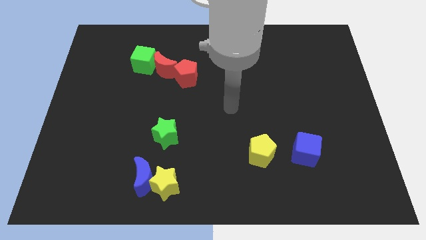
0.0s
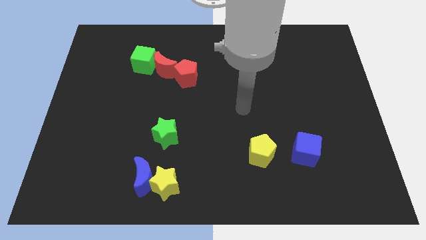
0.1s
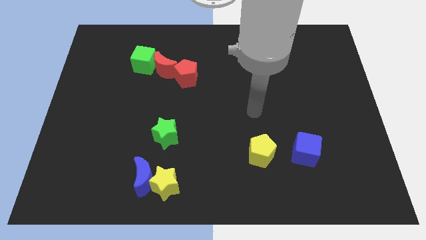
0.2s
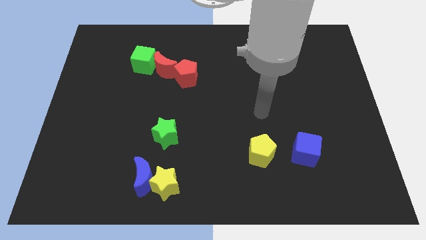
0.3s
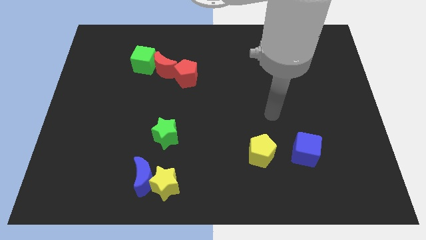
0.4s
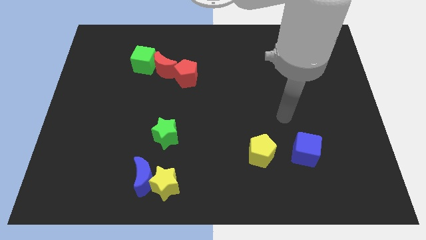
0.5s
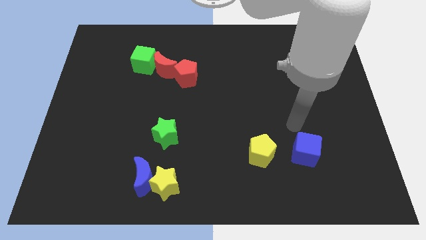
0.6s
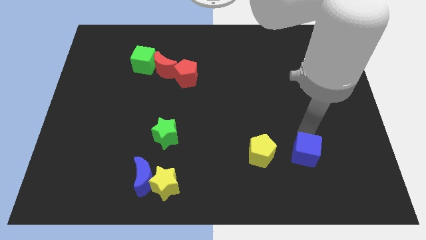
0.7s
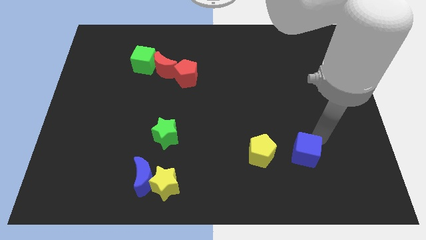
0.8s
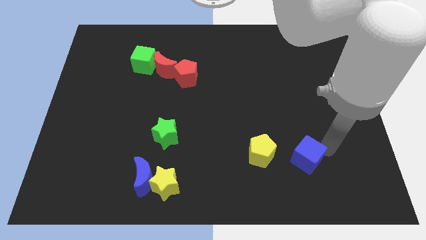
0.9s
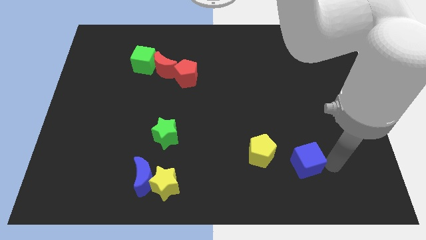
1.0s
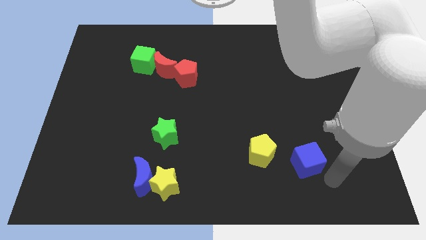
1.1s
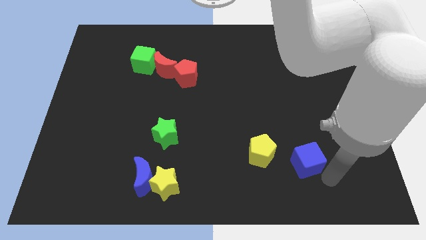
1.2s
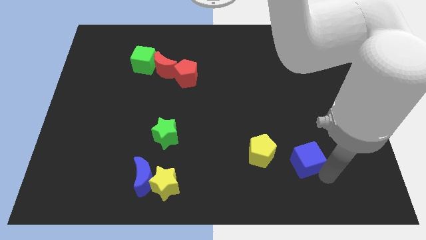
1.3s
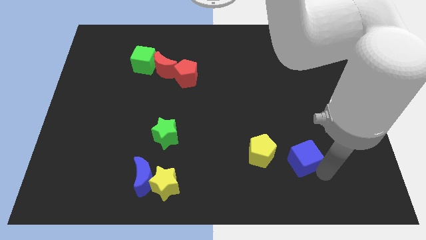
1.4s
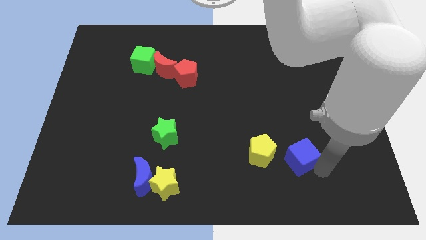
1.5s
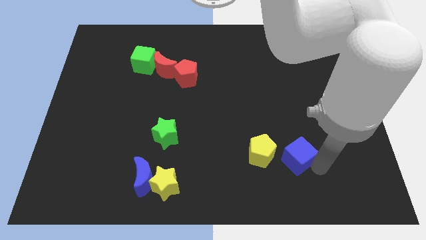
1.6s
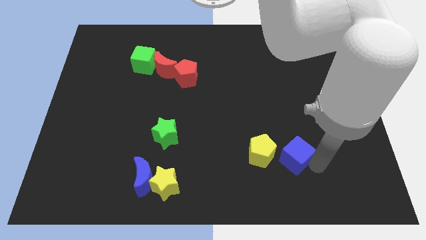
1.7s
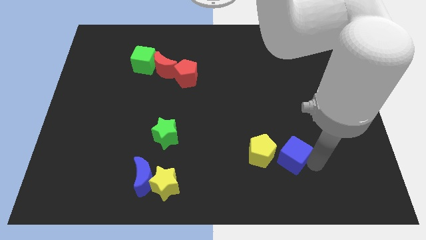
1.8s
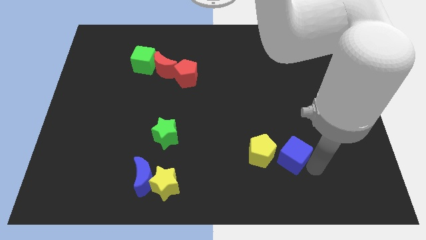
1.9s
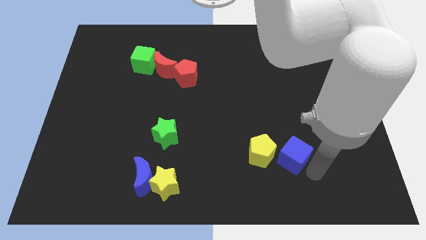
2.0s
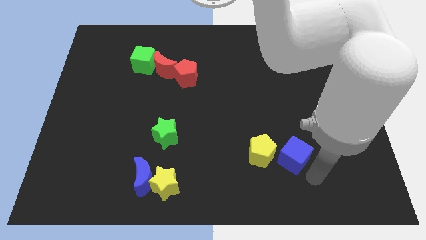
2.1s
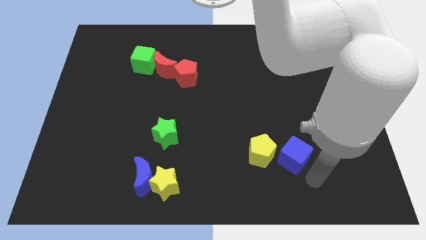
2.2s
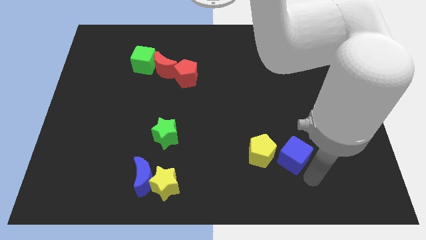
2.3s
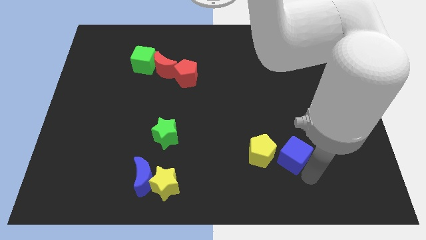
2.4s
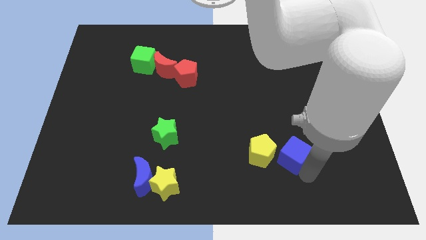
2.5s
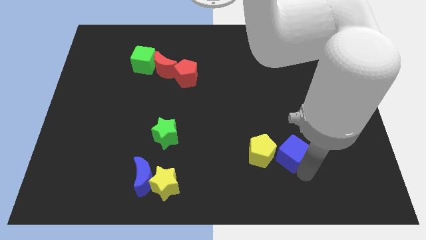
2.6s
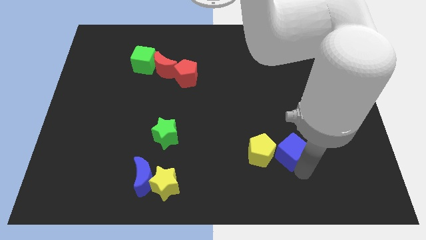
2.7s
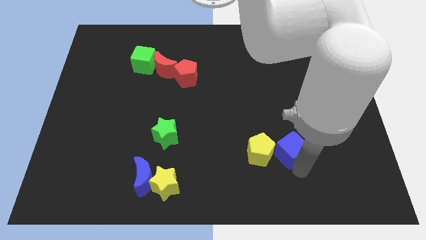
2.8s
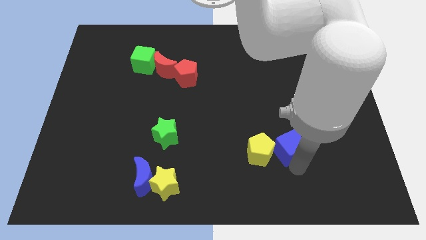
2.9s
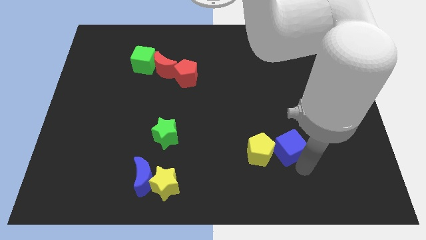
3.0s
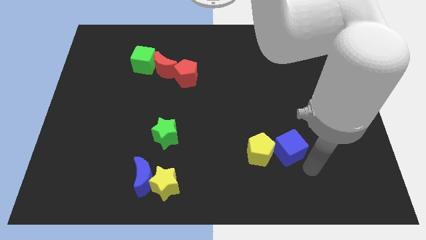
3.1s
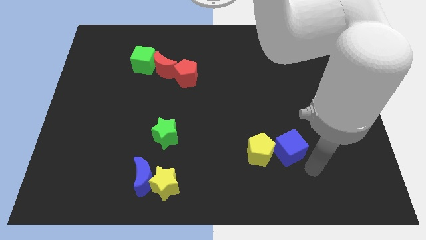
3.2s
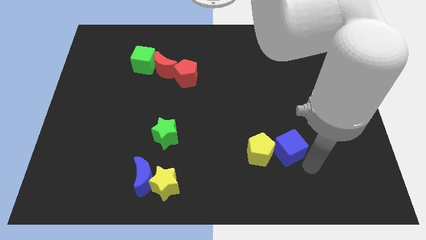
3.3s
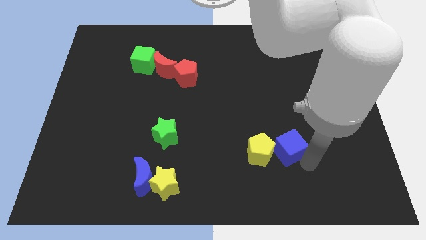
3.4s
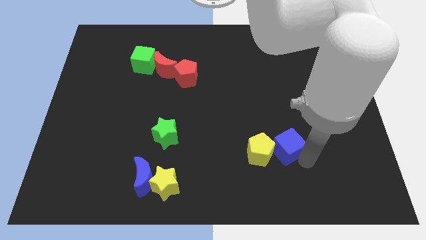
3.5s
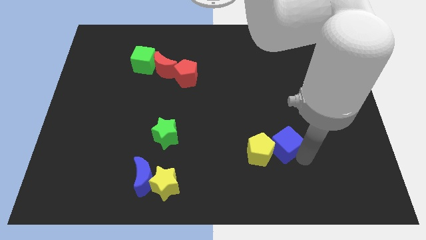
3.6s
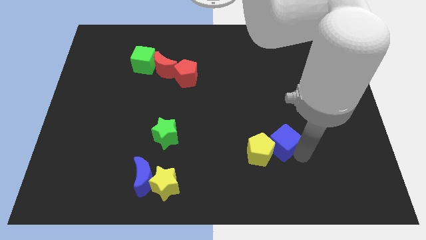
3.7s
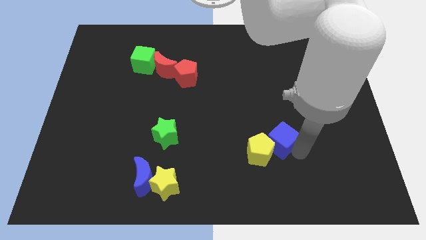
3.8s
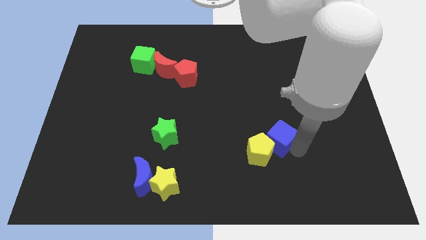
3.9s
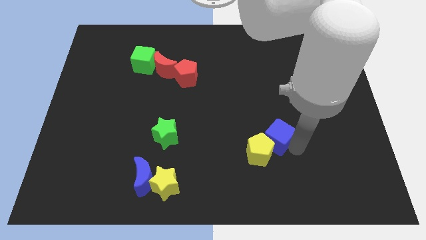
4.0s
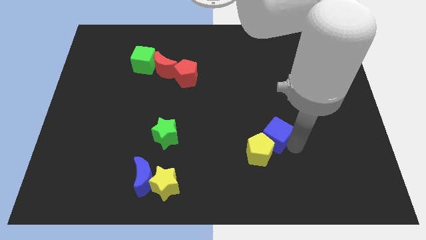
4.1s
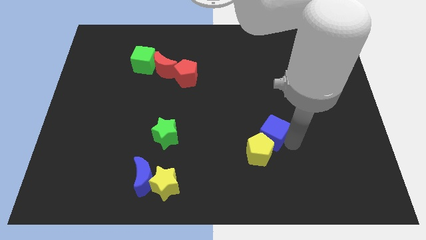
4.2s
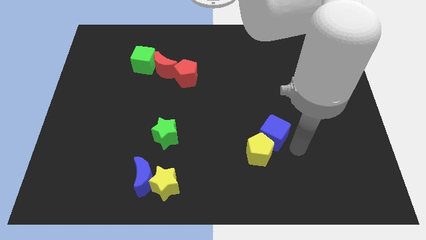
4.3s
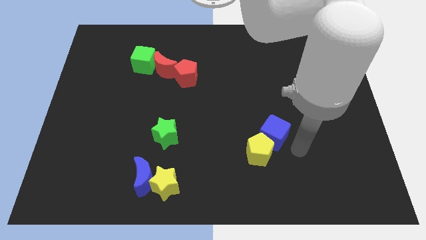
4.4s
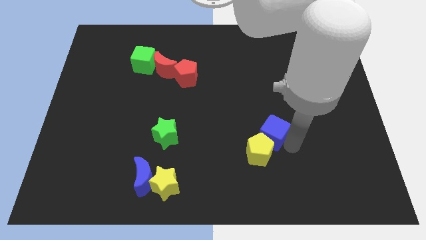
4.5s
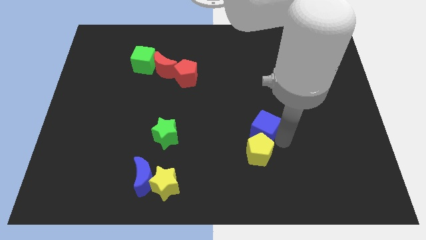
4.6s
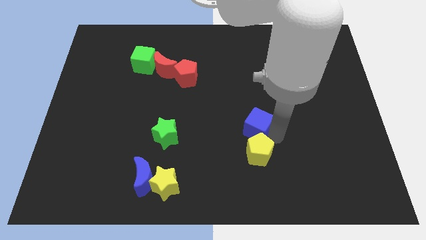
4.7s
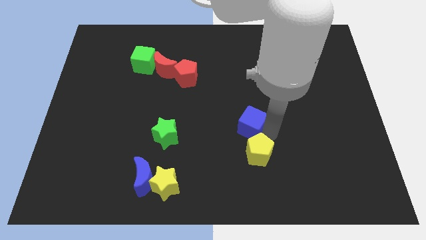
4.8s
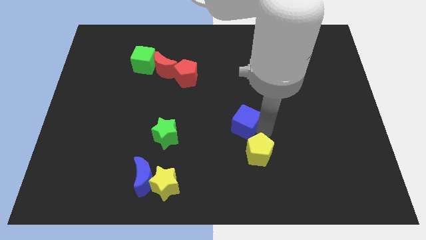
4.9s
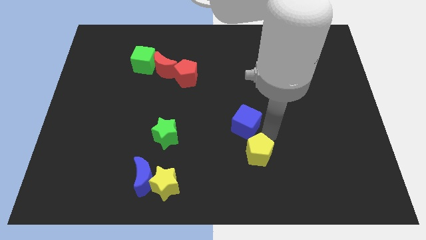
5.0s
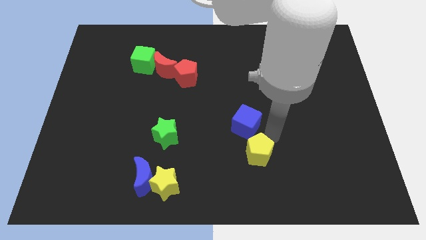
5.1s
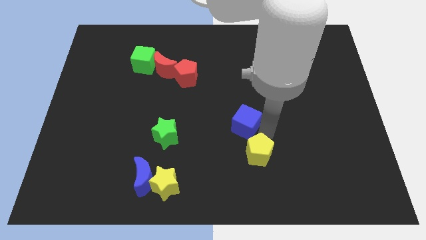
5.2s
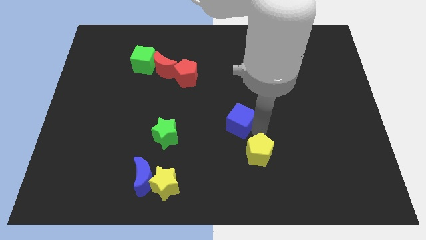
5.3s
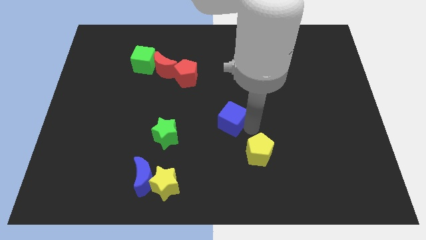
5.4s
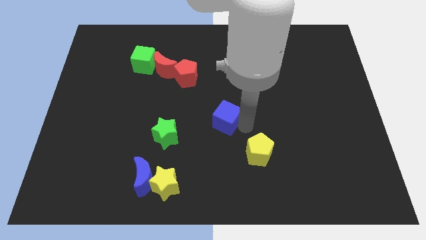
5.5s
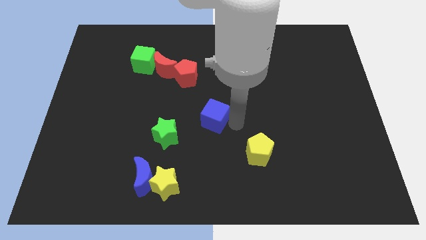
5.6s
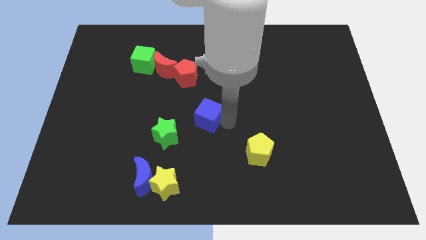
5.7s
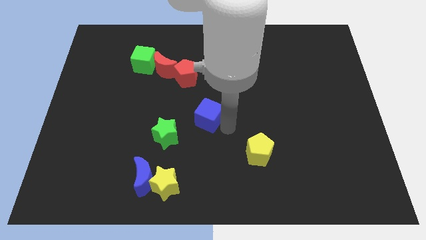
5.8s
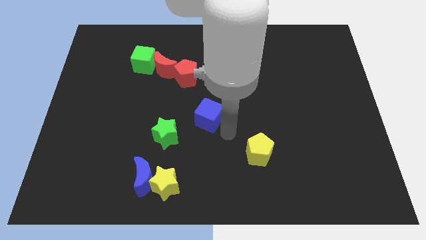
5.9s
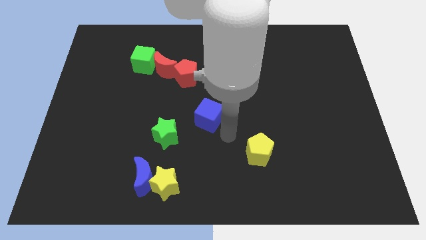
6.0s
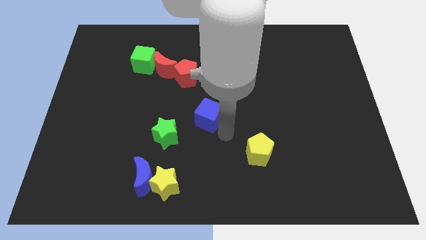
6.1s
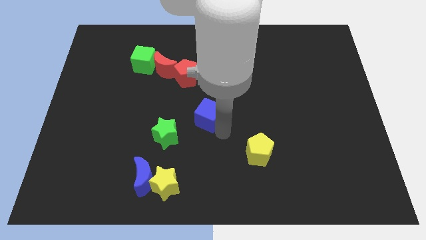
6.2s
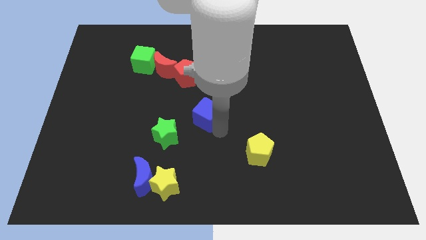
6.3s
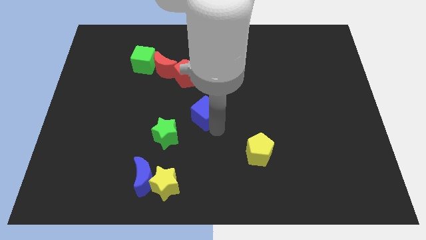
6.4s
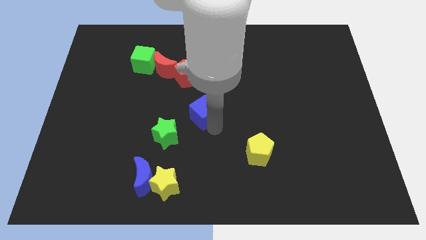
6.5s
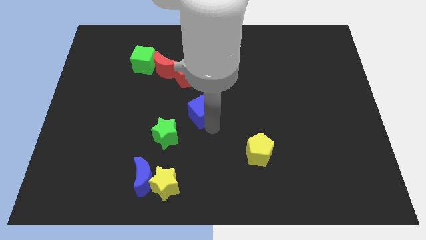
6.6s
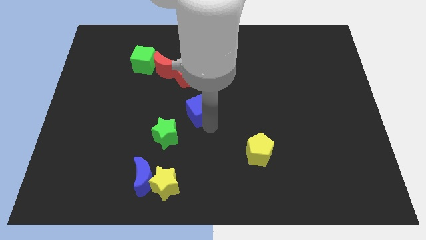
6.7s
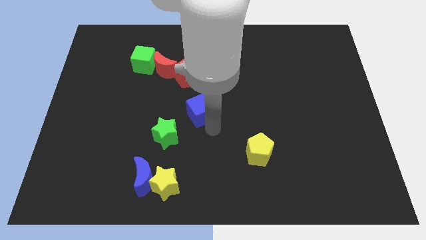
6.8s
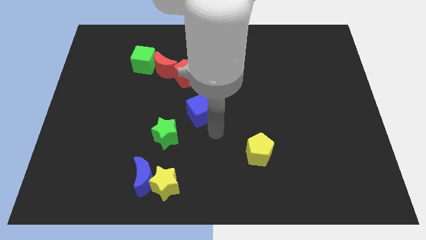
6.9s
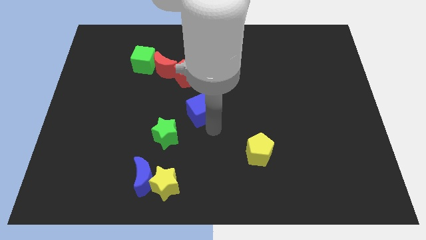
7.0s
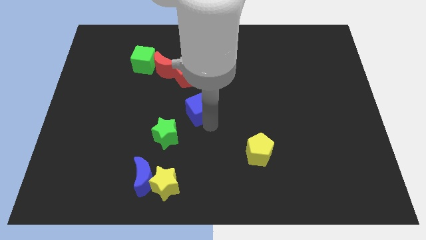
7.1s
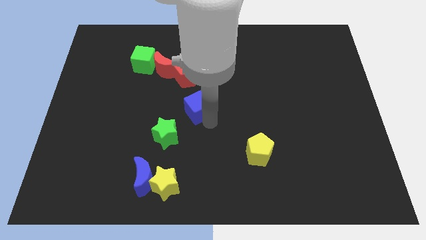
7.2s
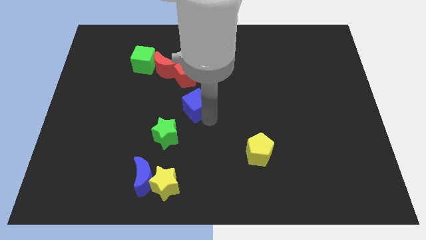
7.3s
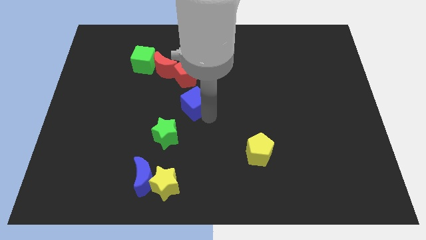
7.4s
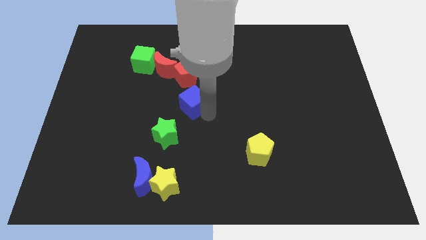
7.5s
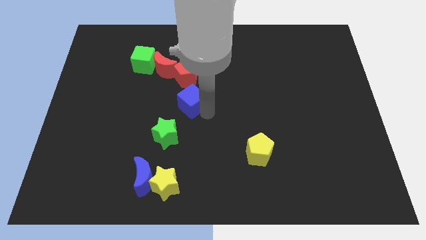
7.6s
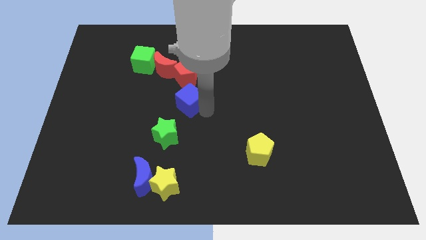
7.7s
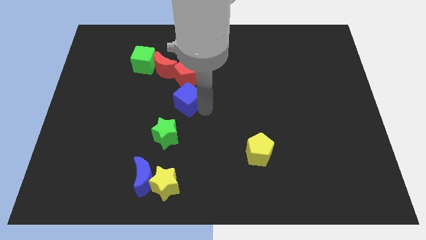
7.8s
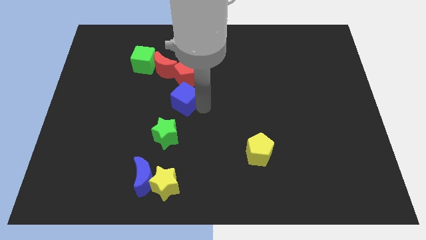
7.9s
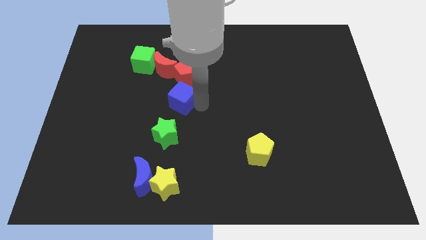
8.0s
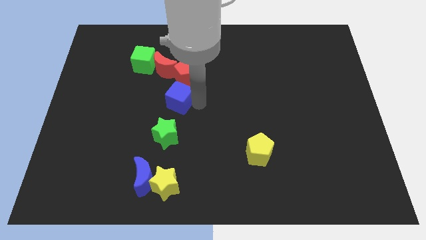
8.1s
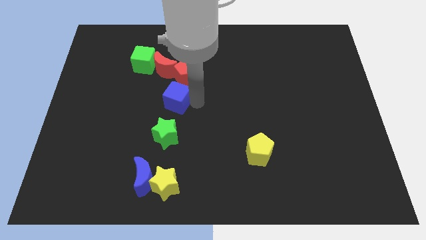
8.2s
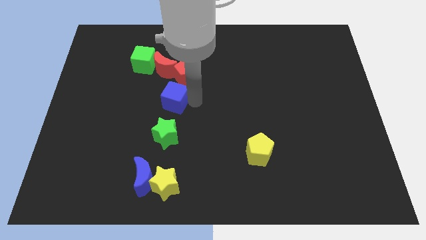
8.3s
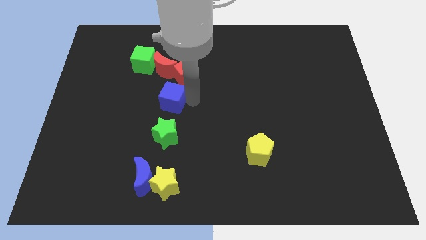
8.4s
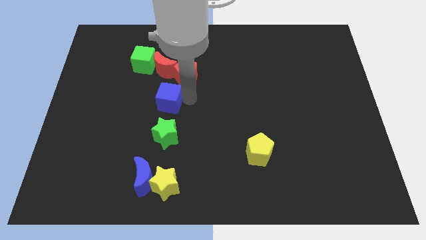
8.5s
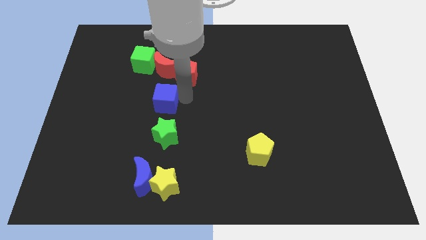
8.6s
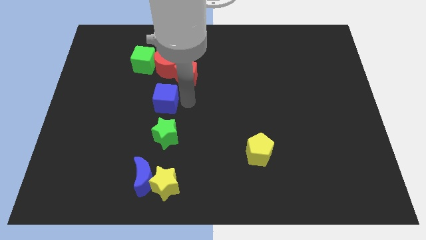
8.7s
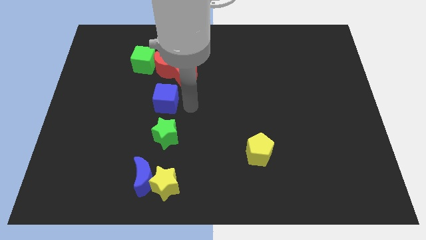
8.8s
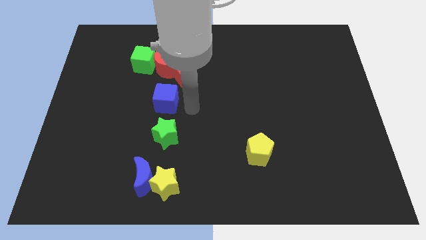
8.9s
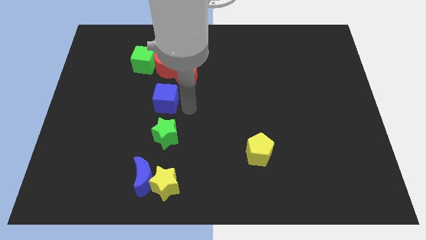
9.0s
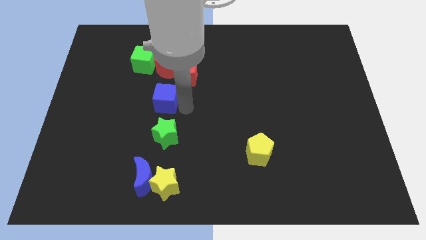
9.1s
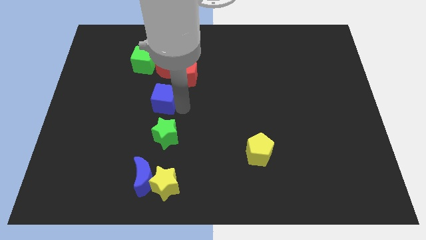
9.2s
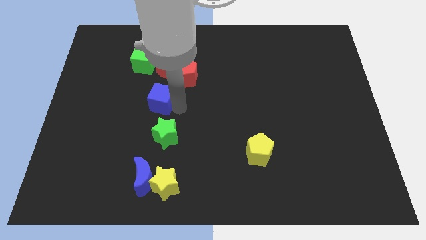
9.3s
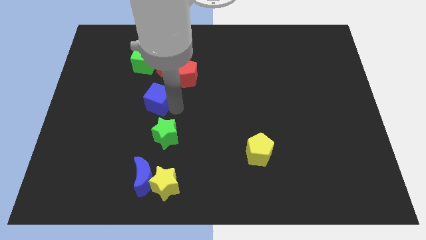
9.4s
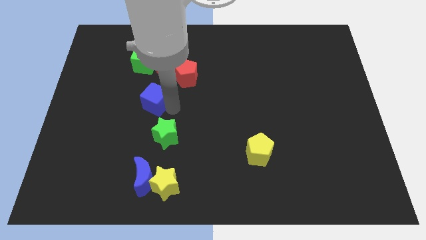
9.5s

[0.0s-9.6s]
push the blue cube below the green cube
